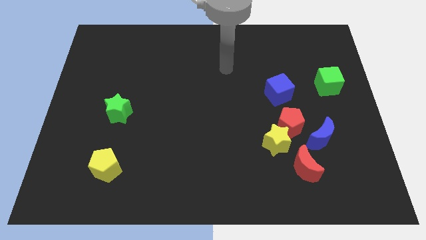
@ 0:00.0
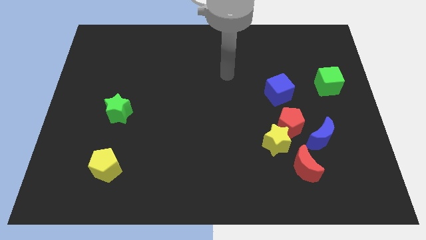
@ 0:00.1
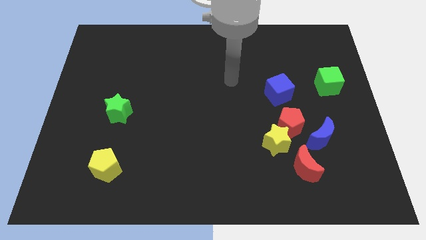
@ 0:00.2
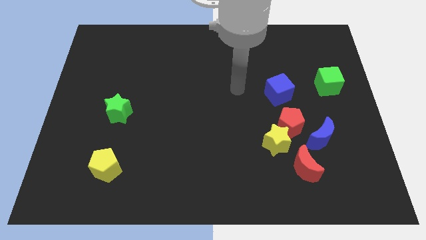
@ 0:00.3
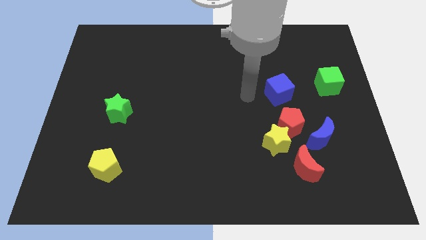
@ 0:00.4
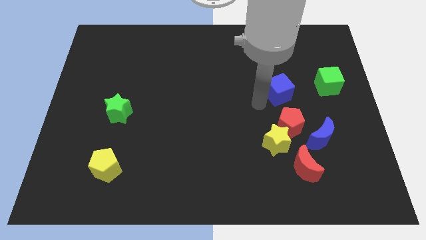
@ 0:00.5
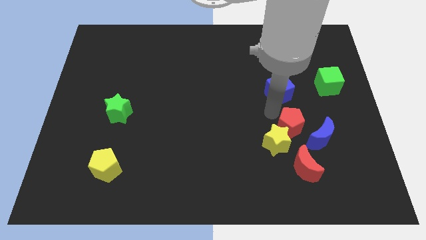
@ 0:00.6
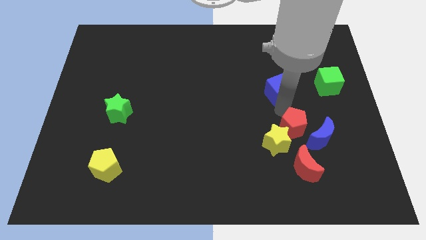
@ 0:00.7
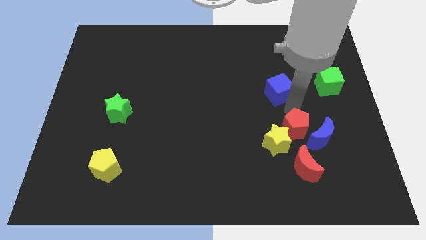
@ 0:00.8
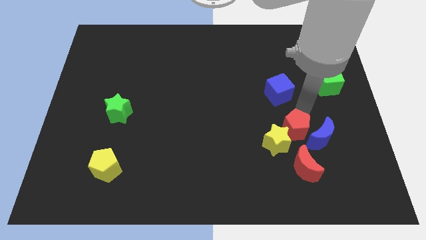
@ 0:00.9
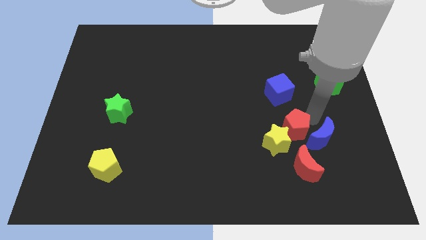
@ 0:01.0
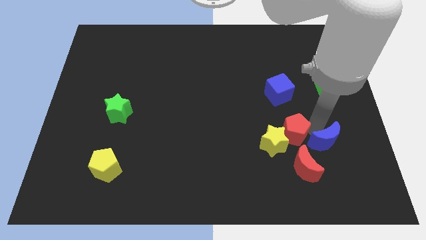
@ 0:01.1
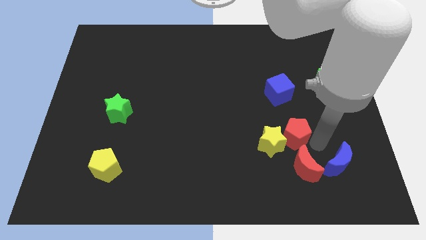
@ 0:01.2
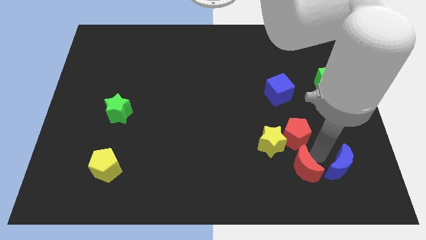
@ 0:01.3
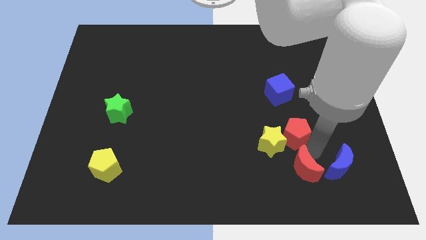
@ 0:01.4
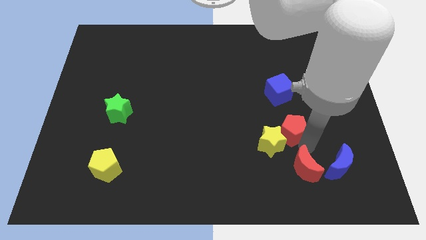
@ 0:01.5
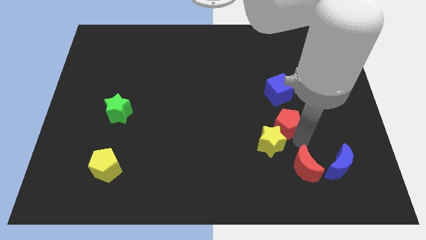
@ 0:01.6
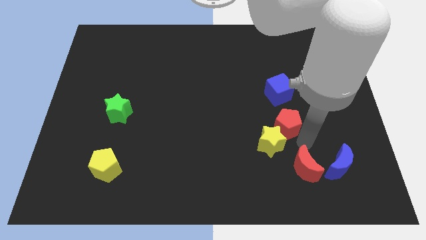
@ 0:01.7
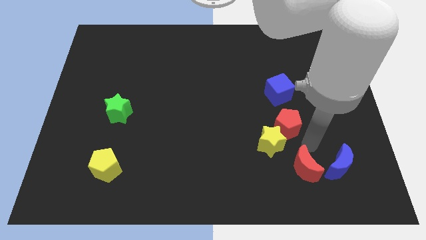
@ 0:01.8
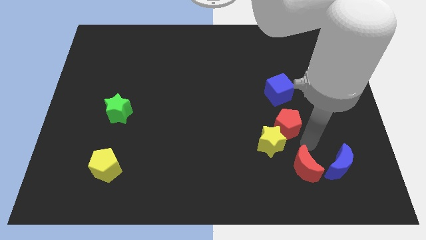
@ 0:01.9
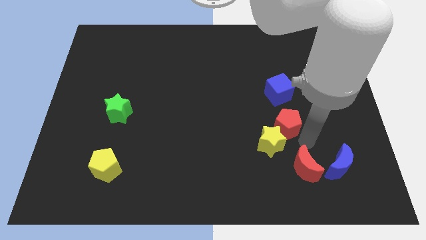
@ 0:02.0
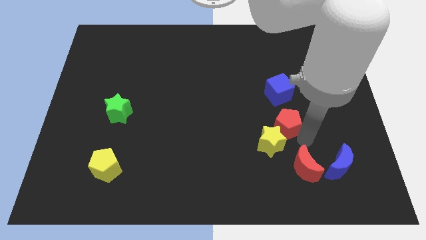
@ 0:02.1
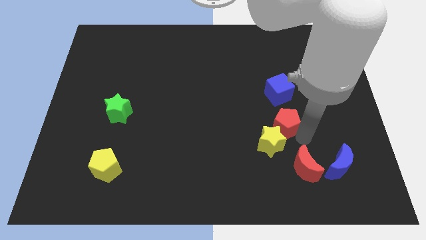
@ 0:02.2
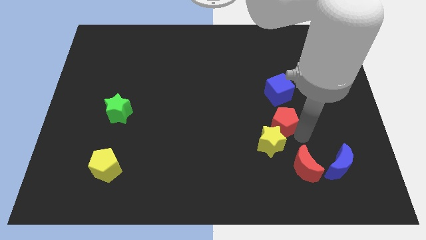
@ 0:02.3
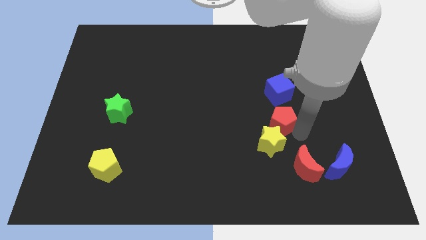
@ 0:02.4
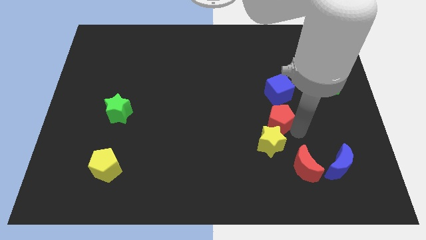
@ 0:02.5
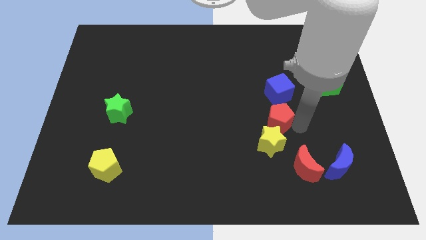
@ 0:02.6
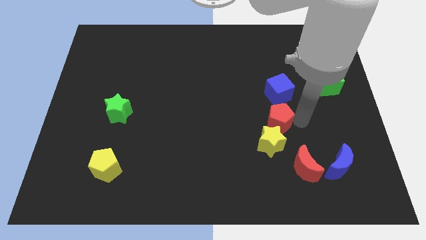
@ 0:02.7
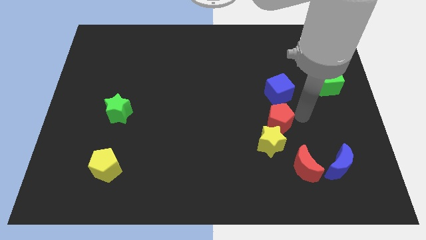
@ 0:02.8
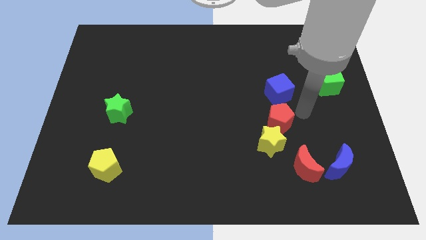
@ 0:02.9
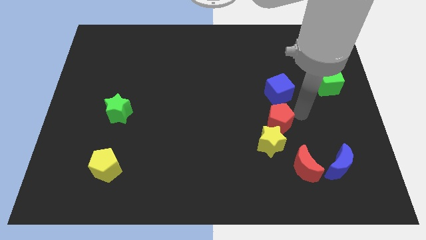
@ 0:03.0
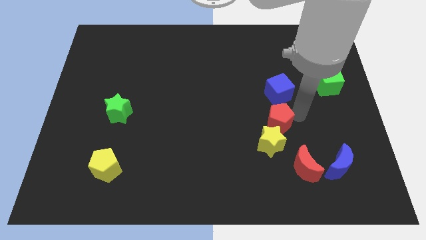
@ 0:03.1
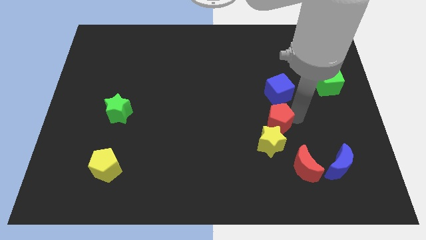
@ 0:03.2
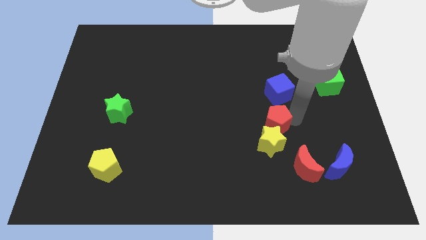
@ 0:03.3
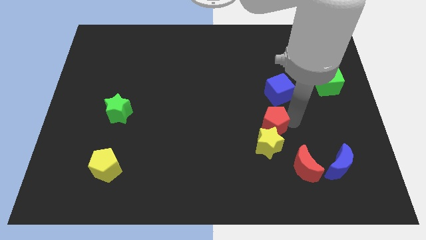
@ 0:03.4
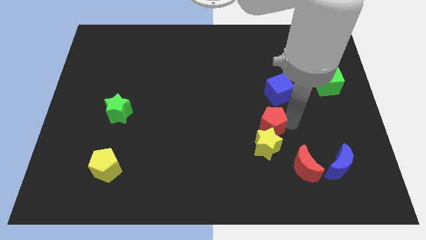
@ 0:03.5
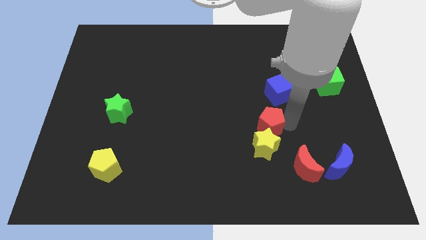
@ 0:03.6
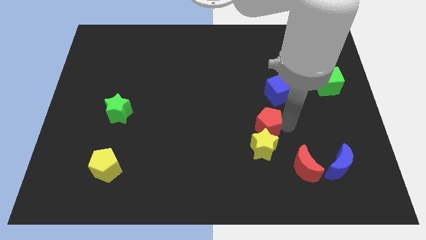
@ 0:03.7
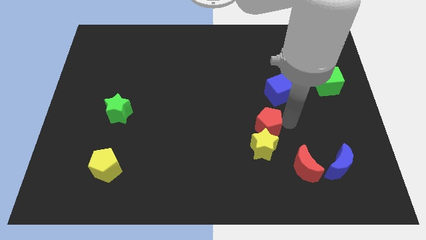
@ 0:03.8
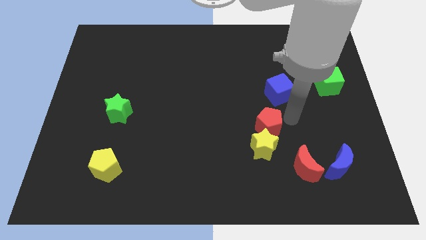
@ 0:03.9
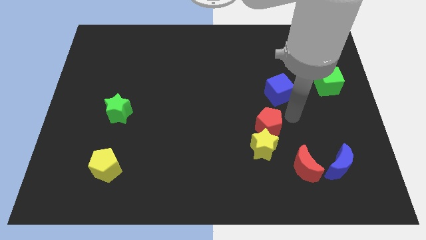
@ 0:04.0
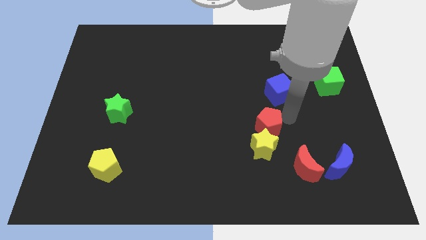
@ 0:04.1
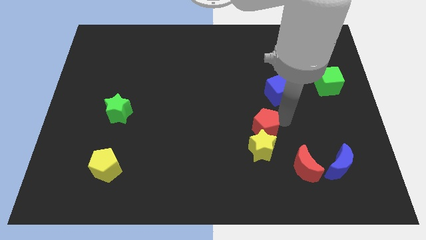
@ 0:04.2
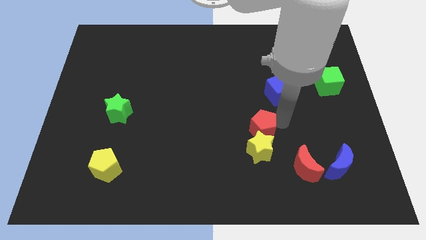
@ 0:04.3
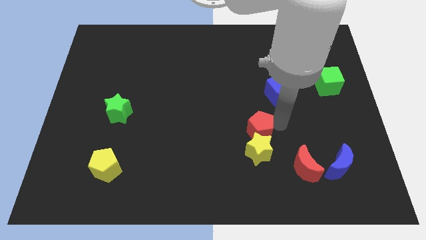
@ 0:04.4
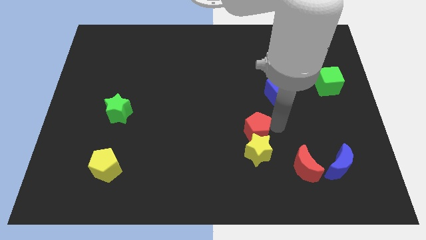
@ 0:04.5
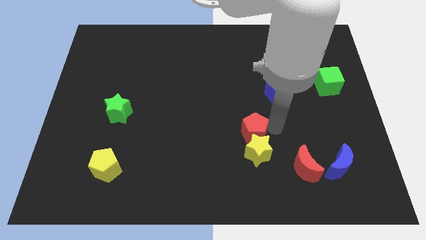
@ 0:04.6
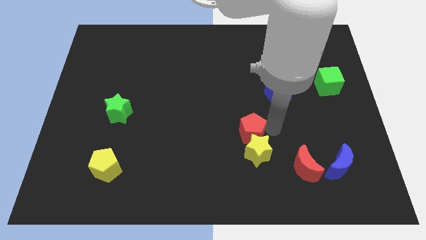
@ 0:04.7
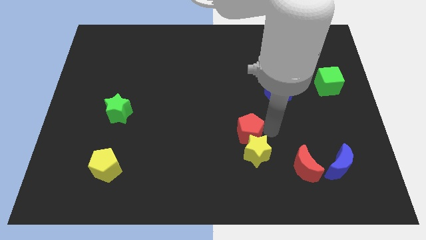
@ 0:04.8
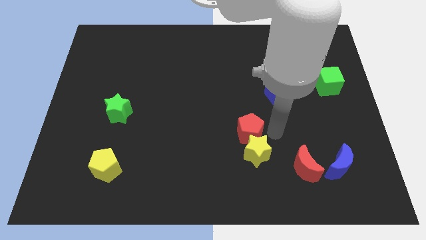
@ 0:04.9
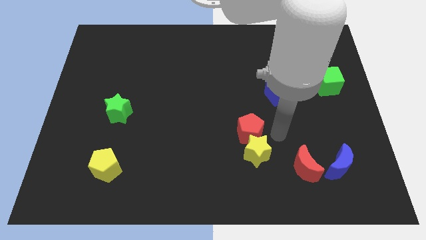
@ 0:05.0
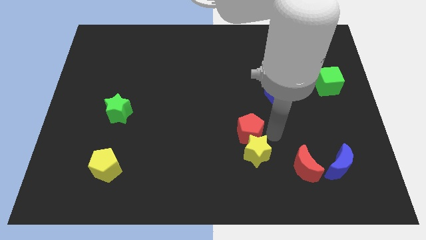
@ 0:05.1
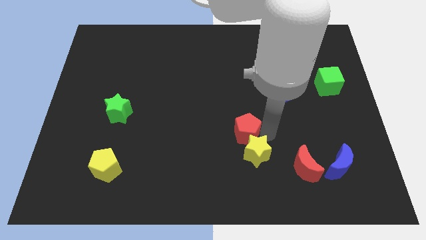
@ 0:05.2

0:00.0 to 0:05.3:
separate the red pentagon from the yellow star, blue moon, and blue cube

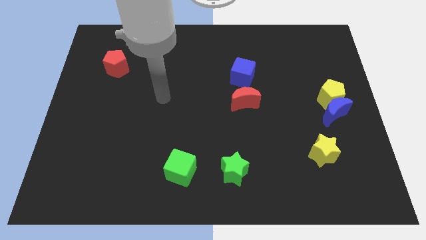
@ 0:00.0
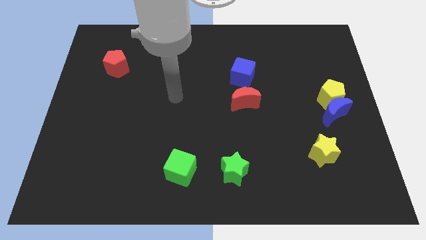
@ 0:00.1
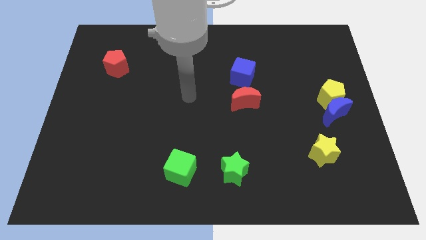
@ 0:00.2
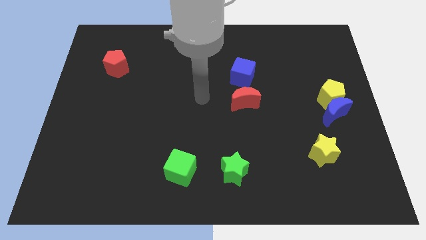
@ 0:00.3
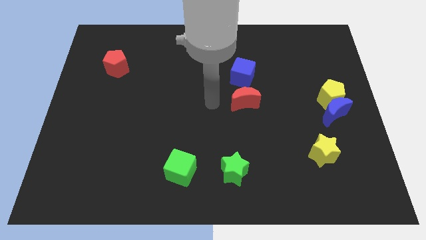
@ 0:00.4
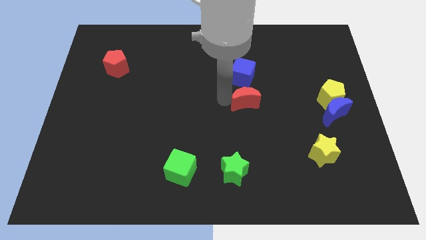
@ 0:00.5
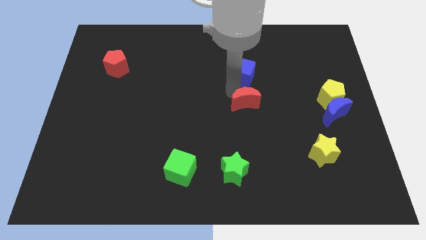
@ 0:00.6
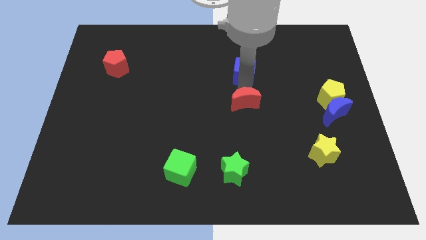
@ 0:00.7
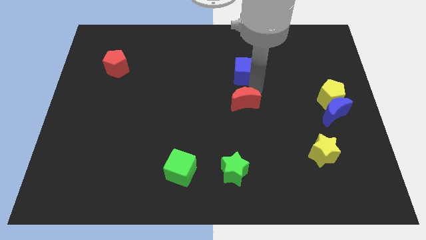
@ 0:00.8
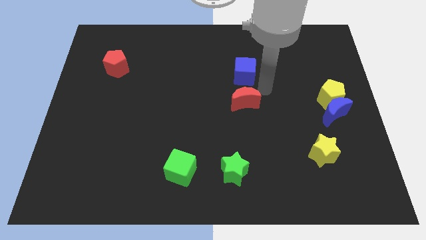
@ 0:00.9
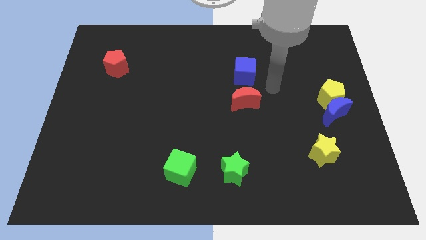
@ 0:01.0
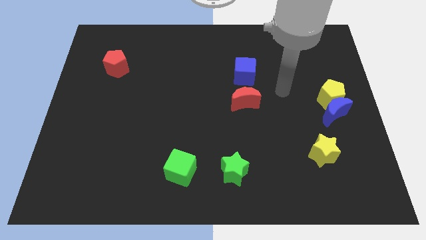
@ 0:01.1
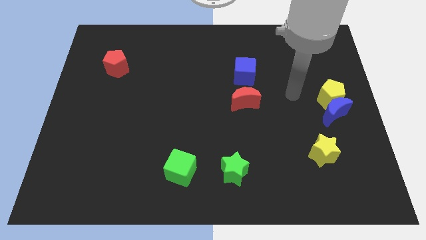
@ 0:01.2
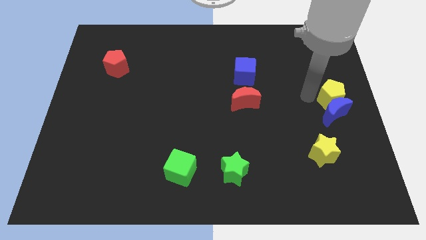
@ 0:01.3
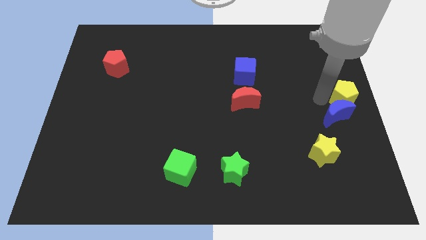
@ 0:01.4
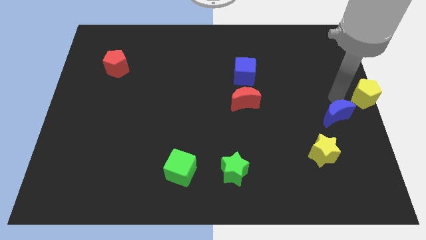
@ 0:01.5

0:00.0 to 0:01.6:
separate the blue moon from the yellow pentagon

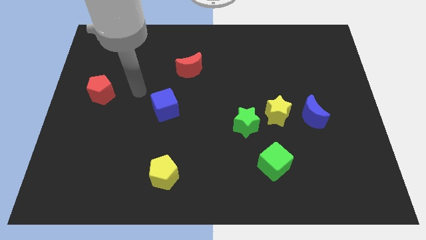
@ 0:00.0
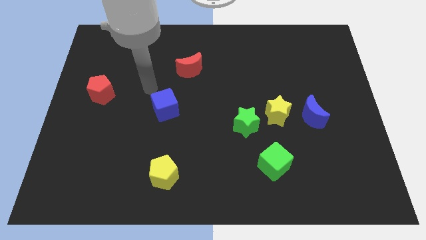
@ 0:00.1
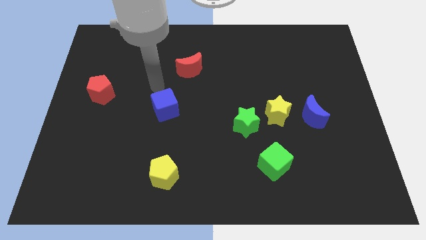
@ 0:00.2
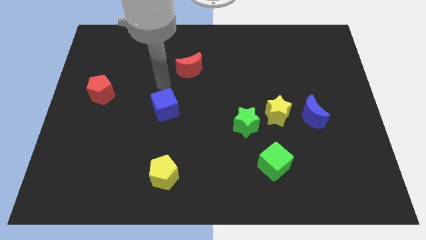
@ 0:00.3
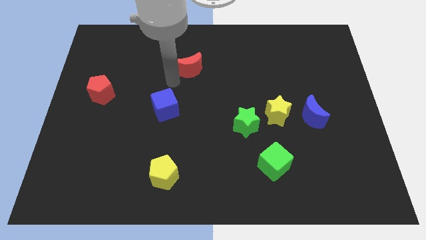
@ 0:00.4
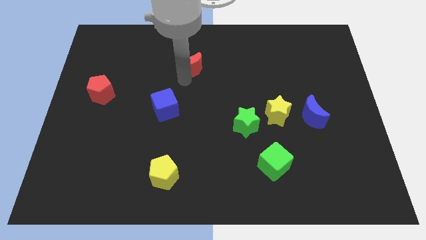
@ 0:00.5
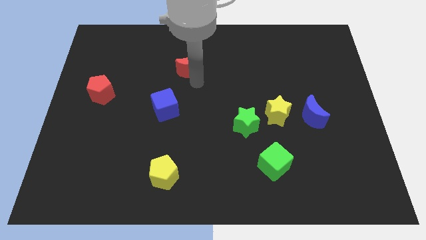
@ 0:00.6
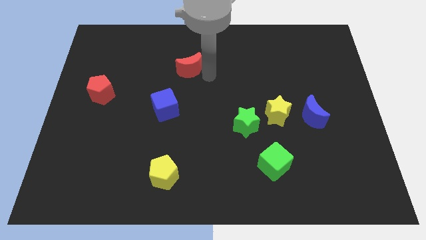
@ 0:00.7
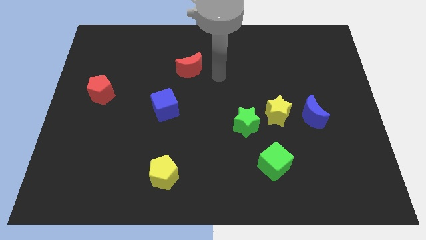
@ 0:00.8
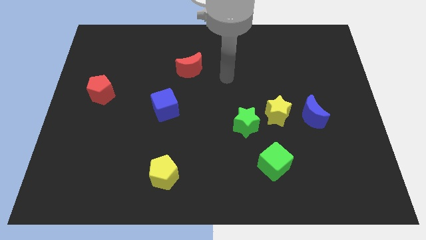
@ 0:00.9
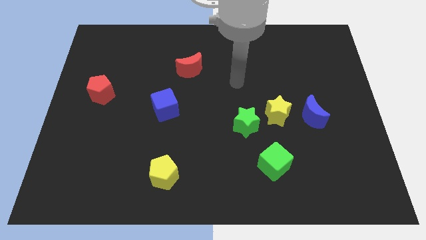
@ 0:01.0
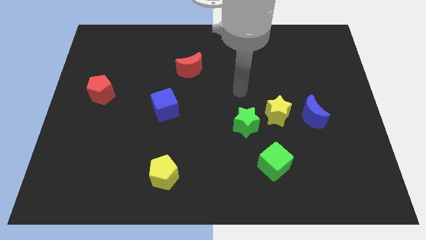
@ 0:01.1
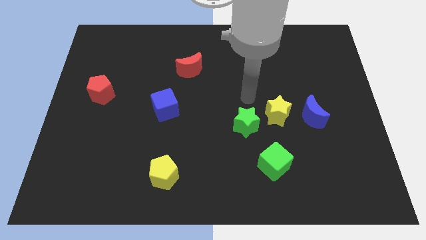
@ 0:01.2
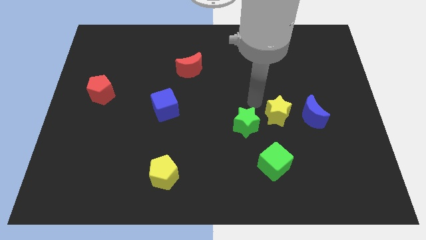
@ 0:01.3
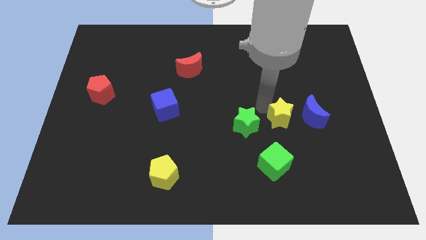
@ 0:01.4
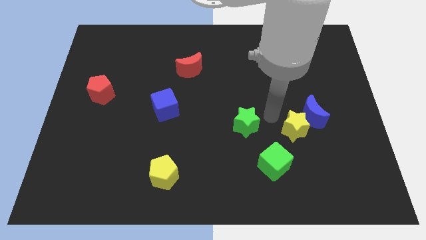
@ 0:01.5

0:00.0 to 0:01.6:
separate the green star from the yellow star

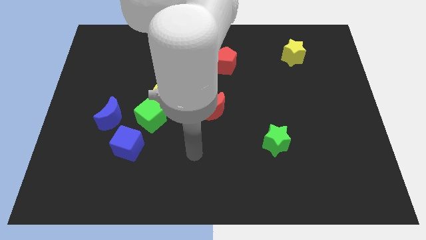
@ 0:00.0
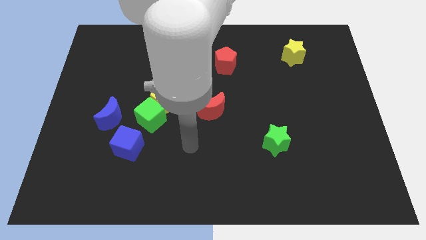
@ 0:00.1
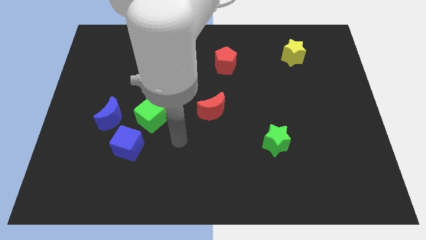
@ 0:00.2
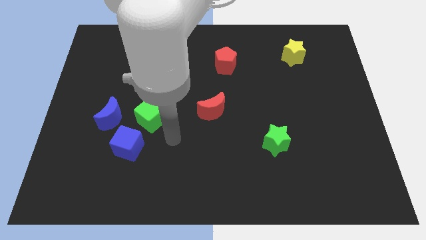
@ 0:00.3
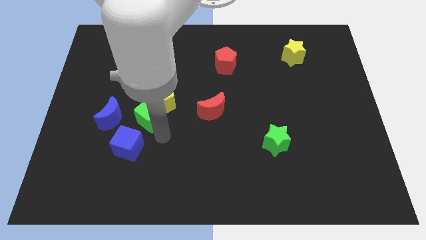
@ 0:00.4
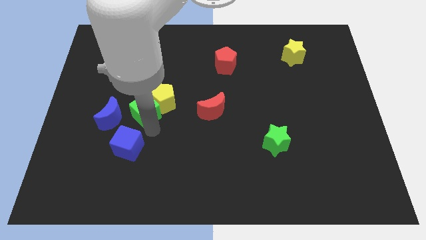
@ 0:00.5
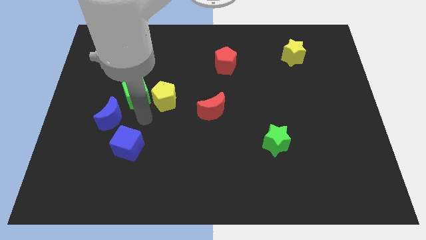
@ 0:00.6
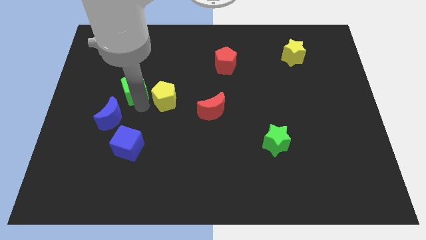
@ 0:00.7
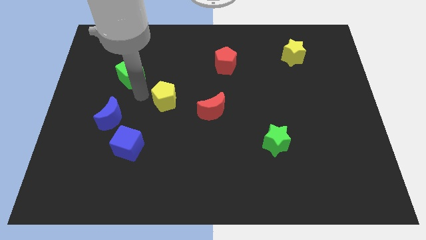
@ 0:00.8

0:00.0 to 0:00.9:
move the yellow pentagon away from the green cube
